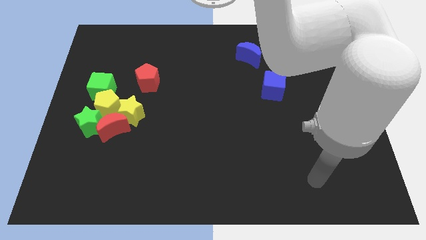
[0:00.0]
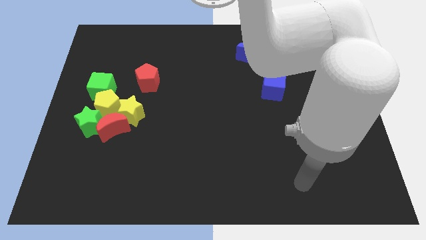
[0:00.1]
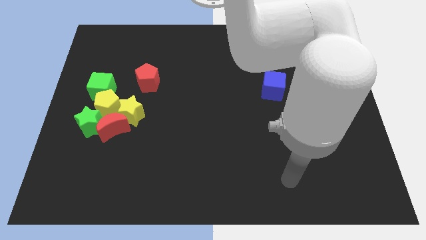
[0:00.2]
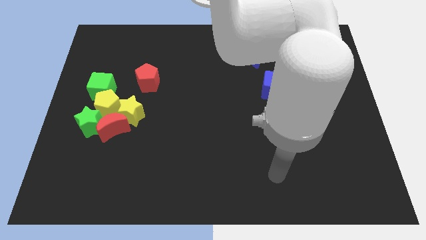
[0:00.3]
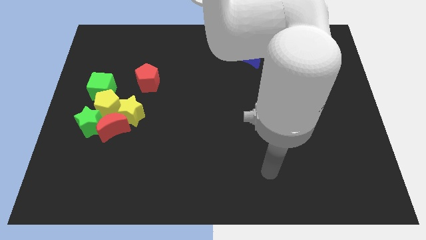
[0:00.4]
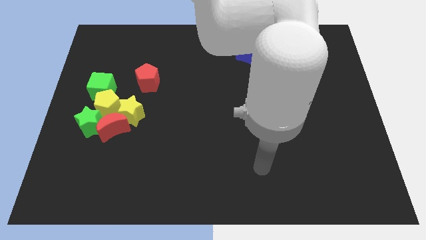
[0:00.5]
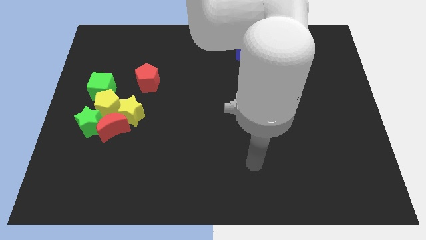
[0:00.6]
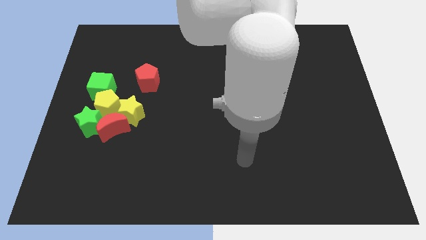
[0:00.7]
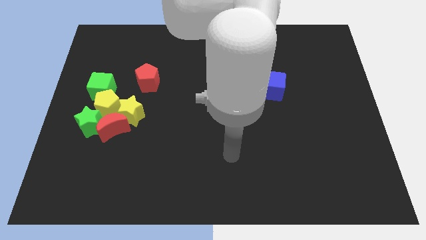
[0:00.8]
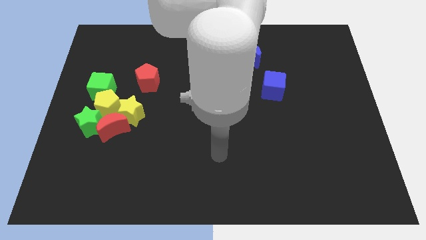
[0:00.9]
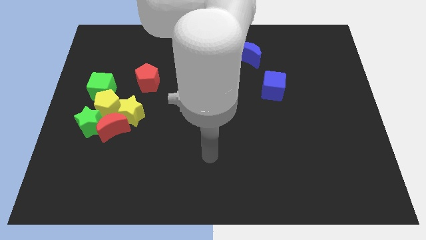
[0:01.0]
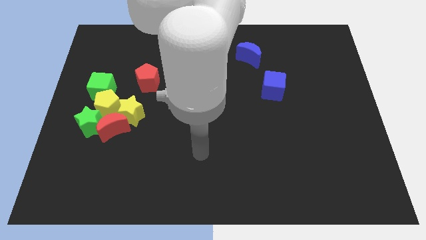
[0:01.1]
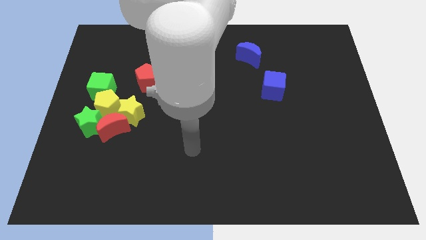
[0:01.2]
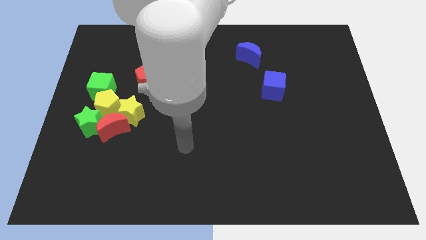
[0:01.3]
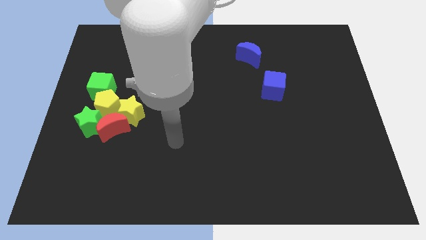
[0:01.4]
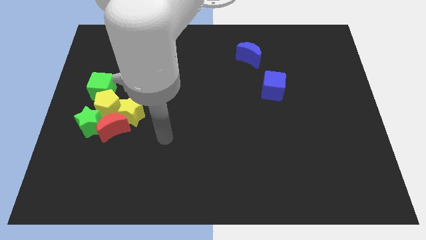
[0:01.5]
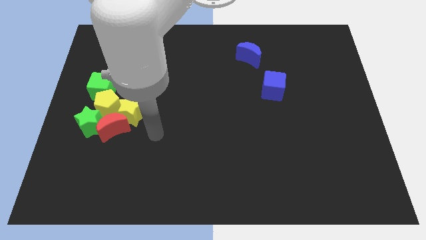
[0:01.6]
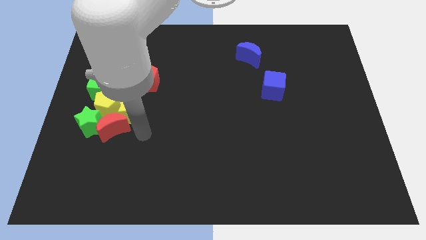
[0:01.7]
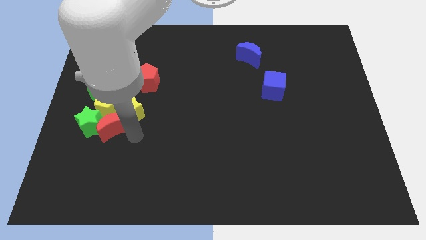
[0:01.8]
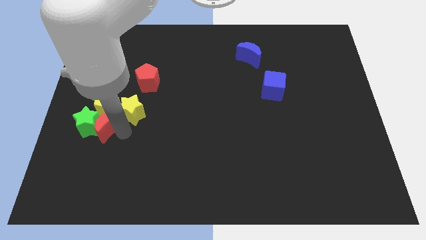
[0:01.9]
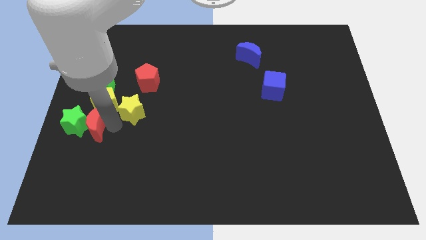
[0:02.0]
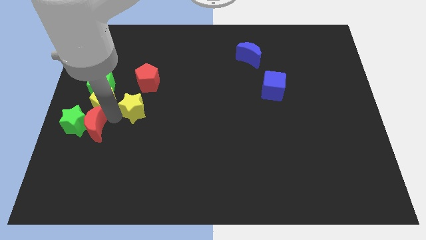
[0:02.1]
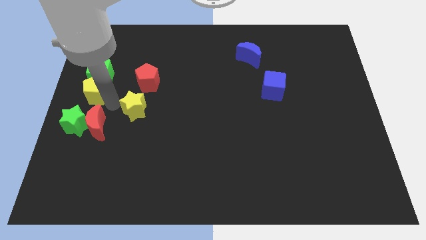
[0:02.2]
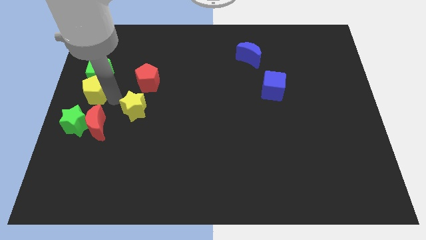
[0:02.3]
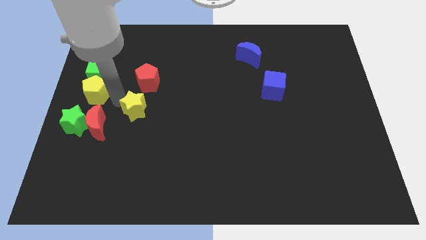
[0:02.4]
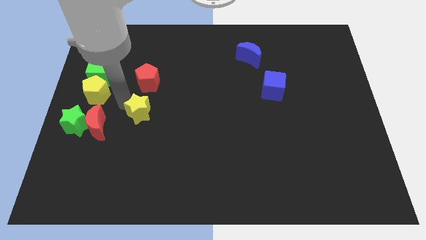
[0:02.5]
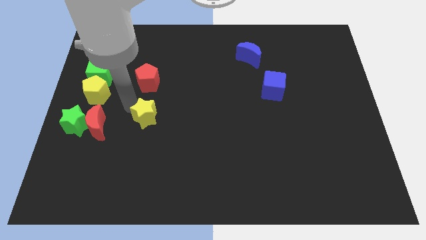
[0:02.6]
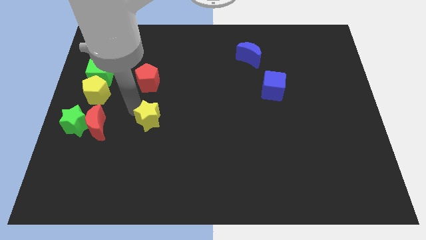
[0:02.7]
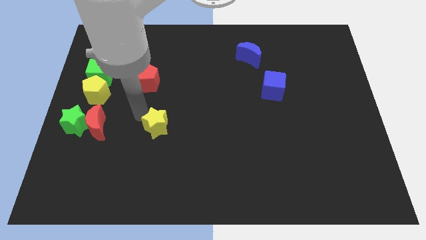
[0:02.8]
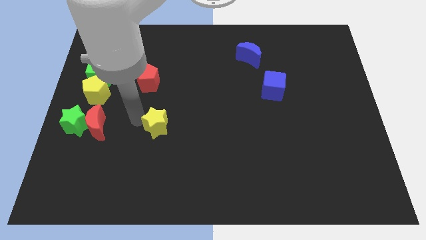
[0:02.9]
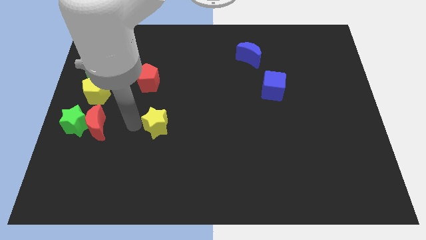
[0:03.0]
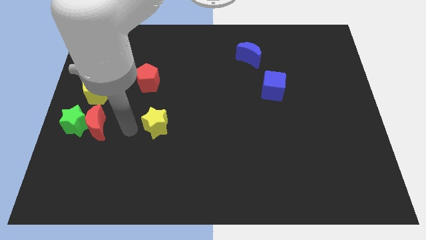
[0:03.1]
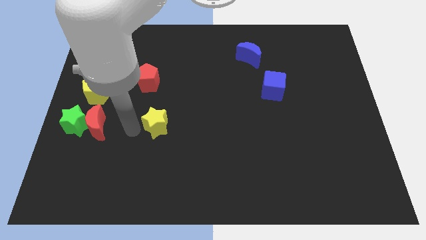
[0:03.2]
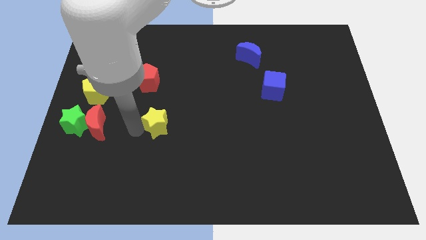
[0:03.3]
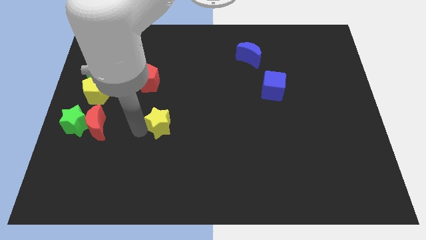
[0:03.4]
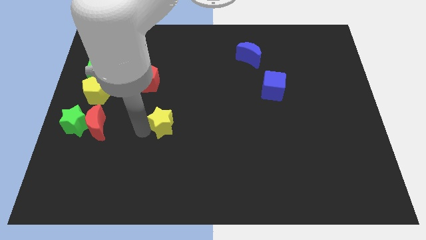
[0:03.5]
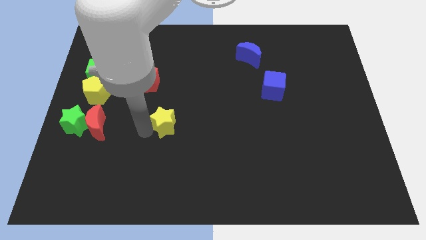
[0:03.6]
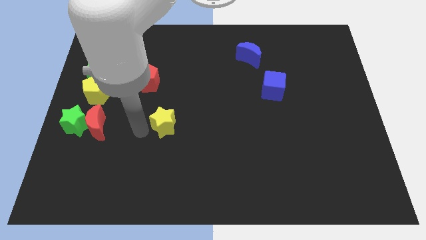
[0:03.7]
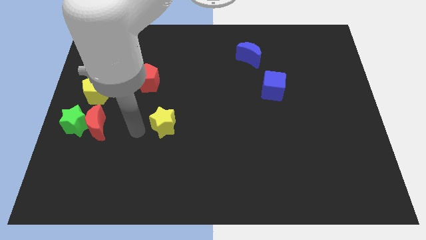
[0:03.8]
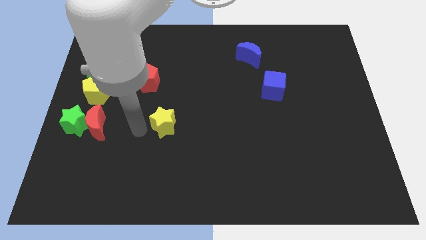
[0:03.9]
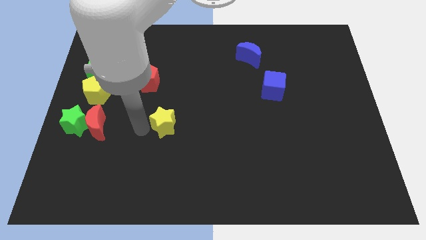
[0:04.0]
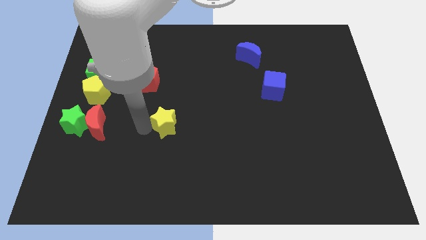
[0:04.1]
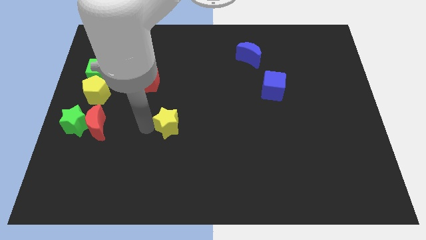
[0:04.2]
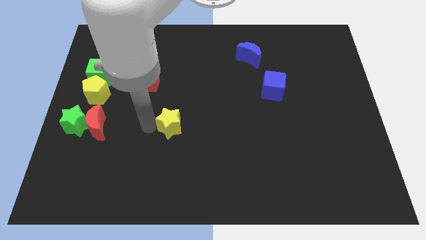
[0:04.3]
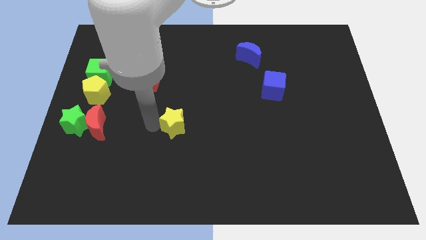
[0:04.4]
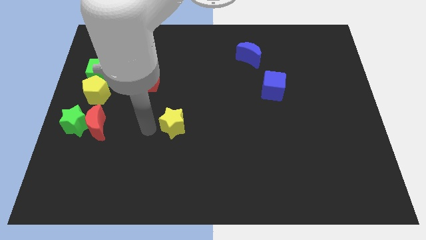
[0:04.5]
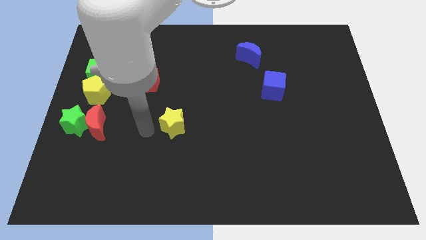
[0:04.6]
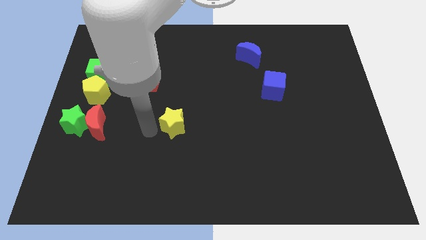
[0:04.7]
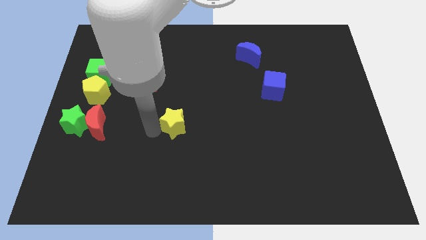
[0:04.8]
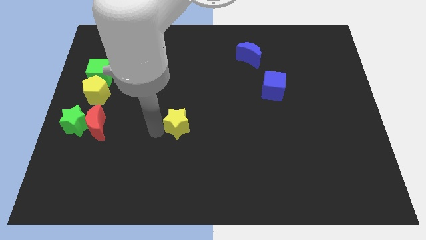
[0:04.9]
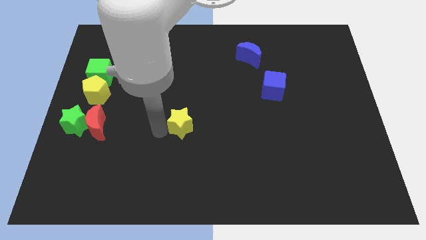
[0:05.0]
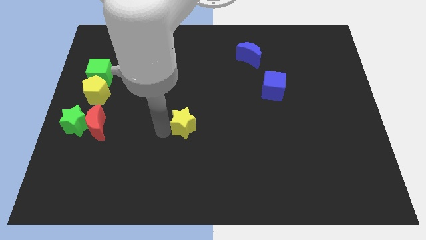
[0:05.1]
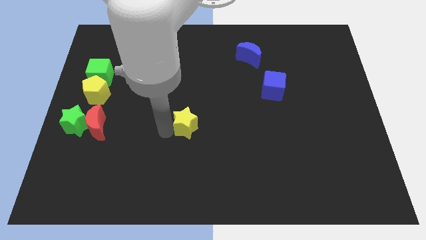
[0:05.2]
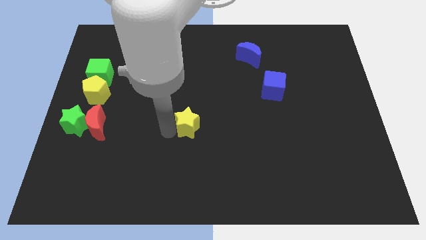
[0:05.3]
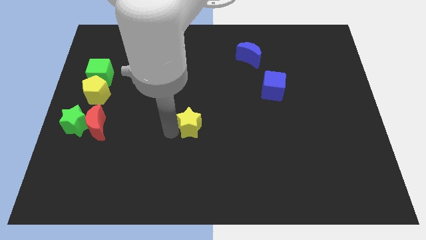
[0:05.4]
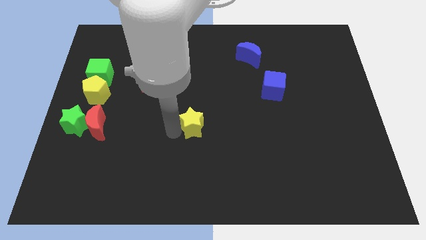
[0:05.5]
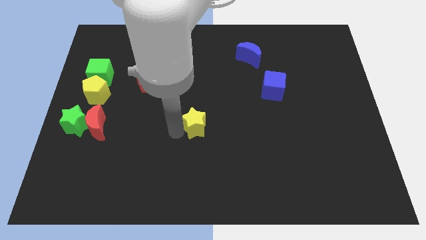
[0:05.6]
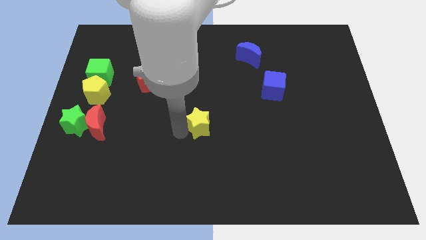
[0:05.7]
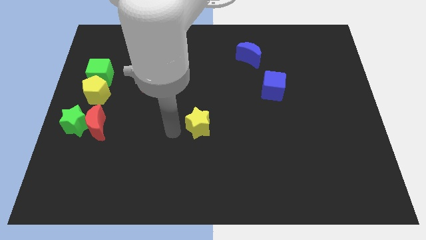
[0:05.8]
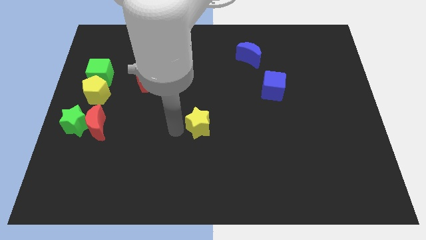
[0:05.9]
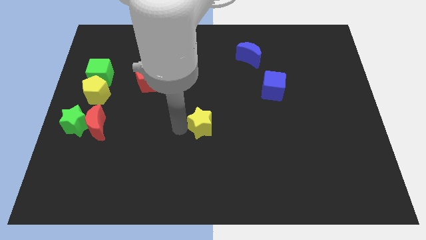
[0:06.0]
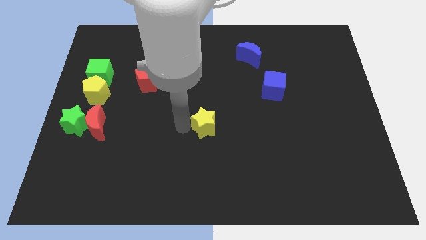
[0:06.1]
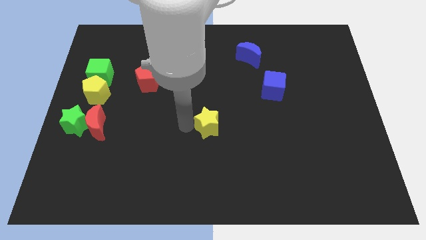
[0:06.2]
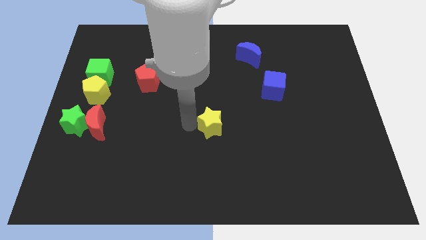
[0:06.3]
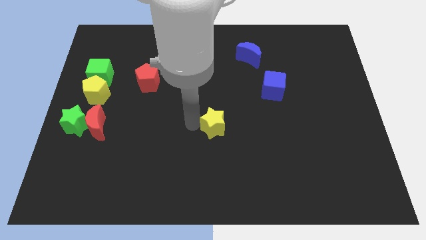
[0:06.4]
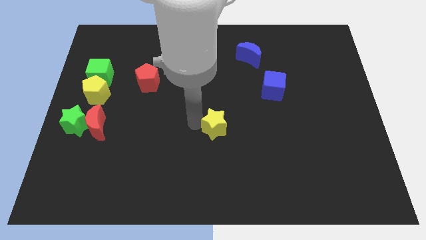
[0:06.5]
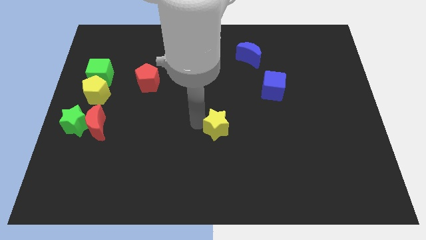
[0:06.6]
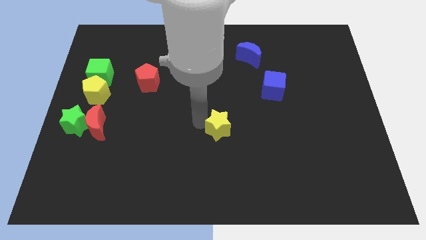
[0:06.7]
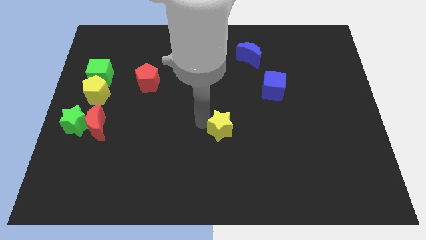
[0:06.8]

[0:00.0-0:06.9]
move the yellow star right

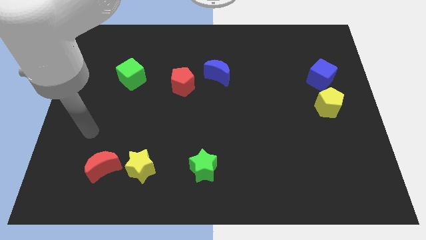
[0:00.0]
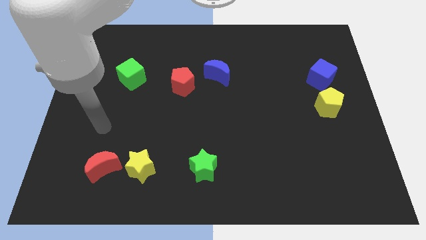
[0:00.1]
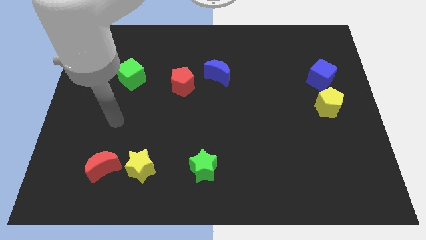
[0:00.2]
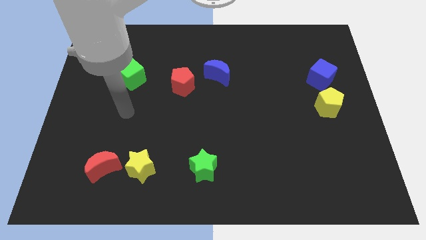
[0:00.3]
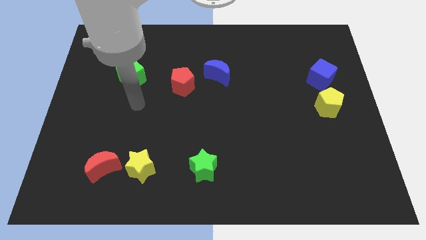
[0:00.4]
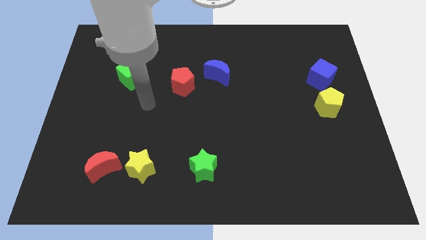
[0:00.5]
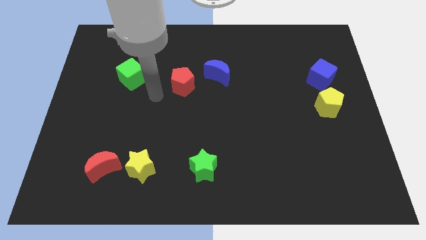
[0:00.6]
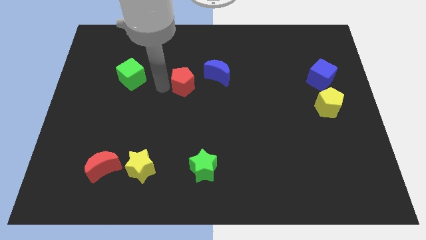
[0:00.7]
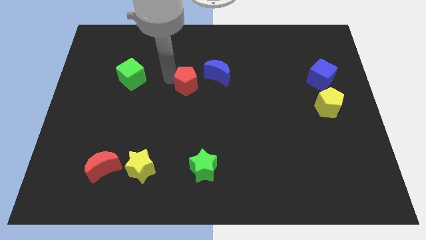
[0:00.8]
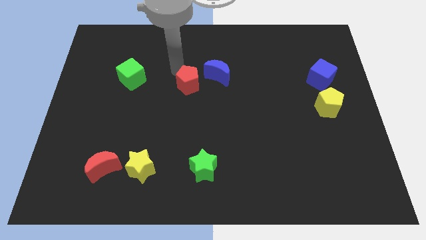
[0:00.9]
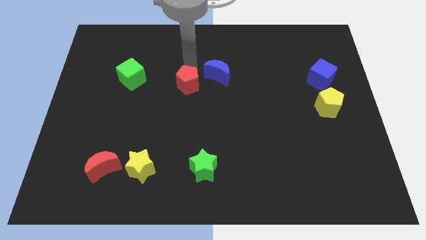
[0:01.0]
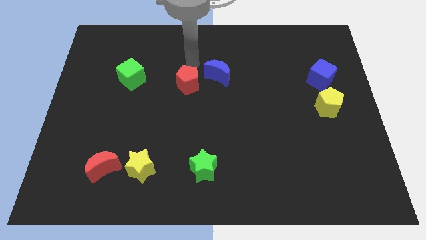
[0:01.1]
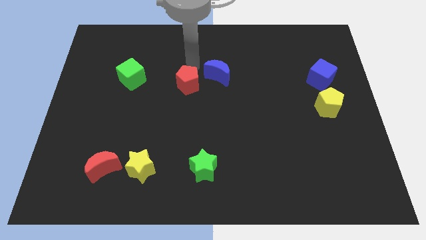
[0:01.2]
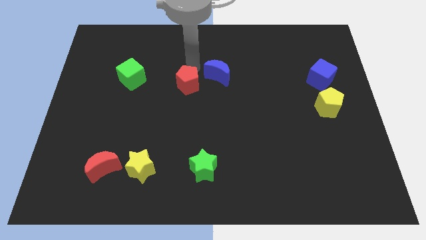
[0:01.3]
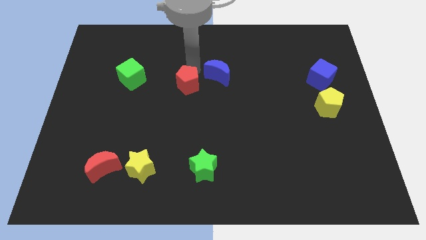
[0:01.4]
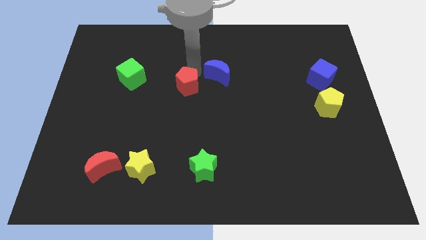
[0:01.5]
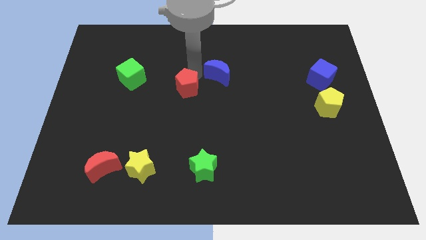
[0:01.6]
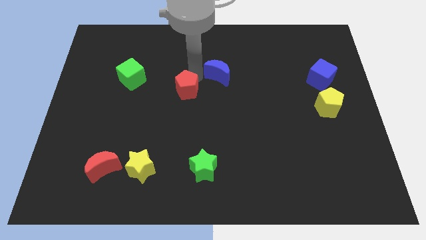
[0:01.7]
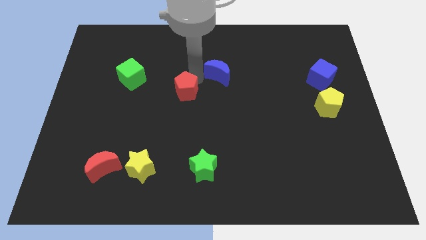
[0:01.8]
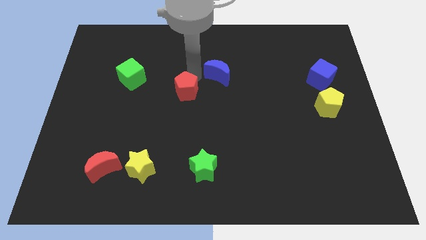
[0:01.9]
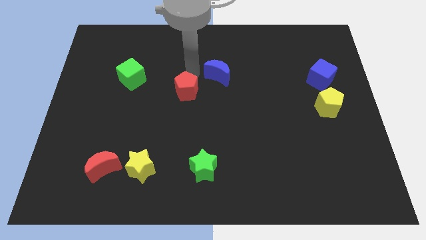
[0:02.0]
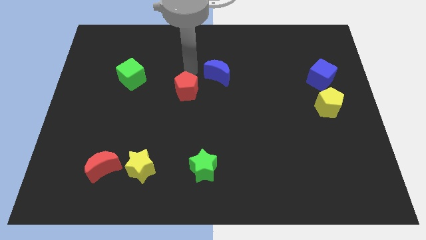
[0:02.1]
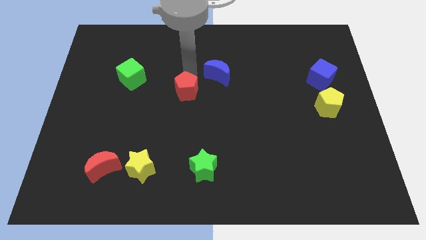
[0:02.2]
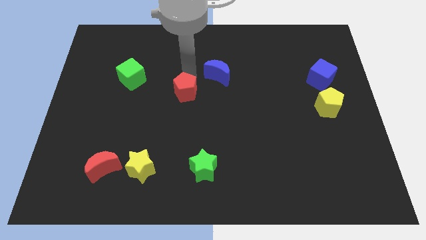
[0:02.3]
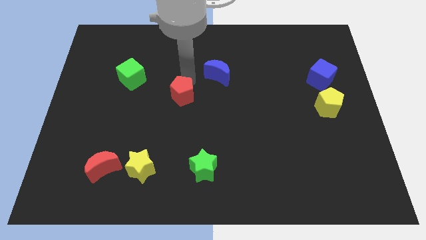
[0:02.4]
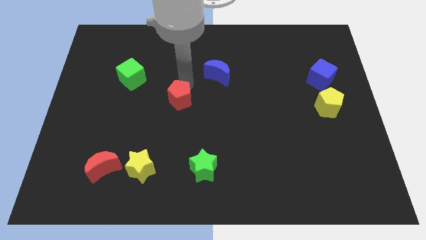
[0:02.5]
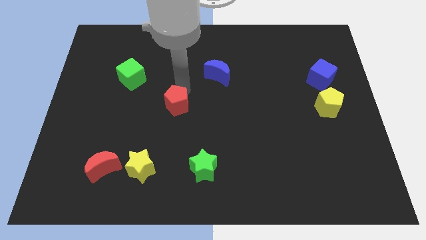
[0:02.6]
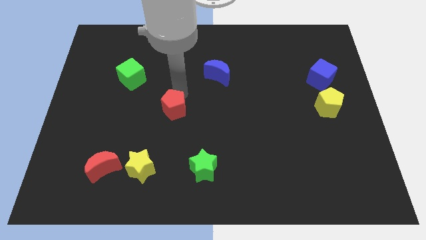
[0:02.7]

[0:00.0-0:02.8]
slightly move the red pentagon downwards
